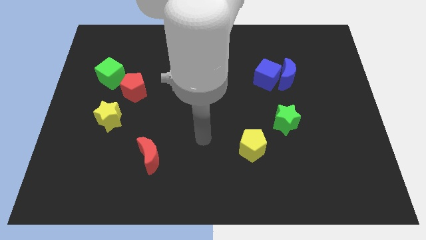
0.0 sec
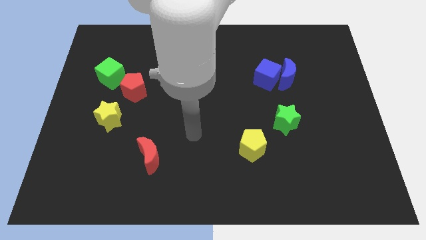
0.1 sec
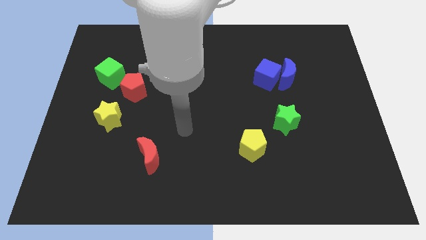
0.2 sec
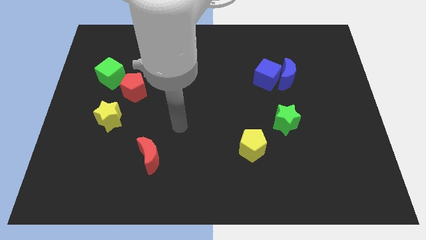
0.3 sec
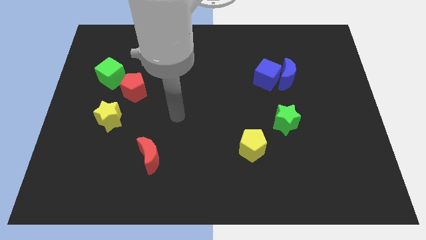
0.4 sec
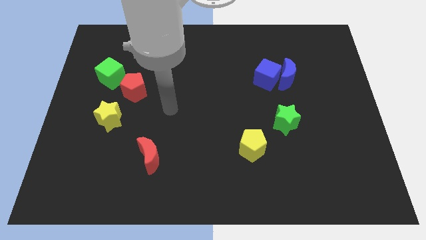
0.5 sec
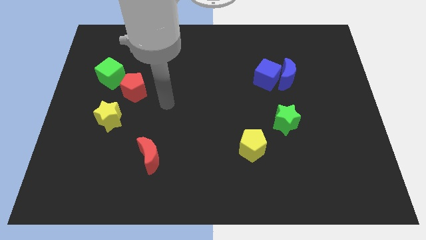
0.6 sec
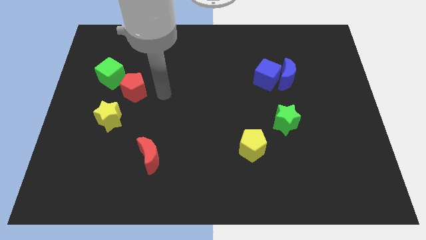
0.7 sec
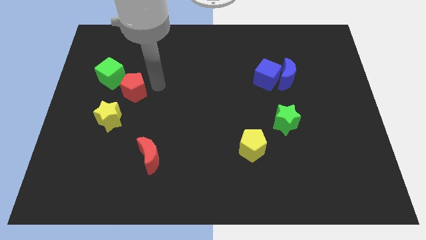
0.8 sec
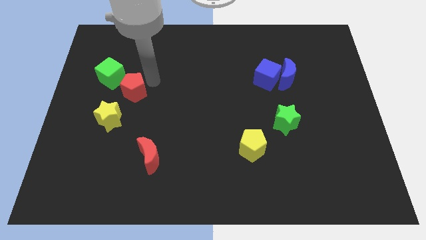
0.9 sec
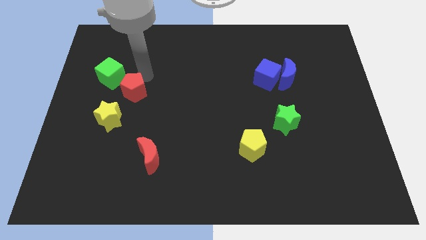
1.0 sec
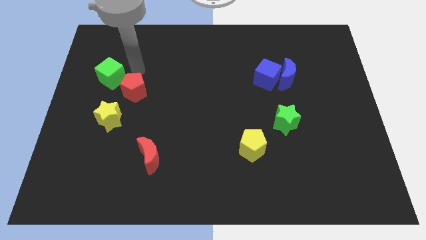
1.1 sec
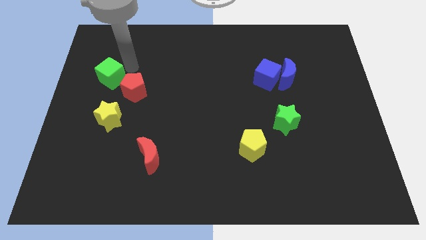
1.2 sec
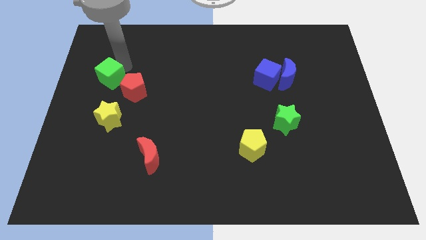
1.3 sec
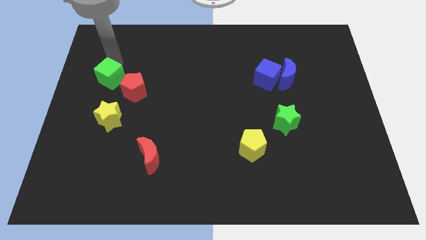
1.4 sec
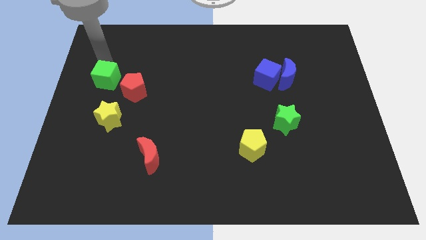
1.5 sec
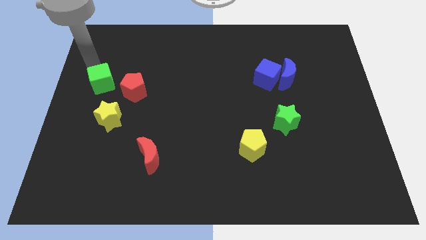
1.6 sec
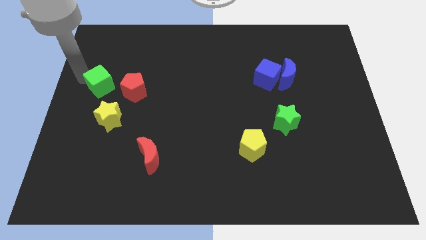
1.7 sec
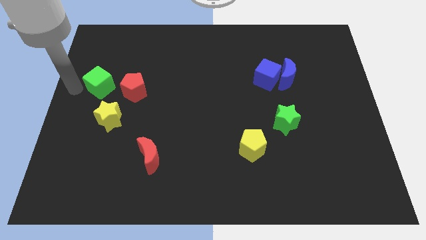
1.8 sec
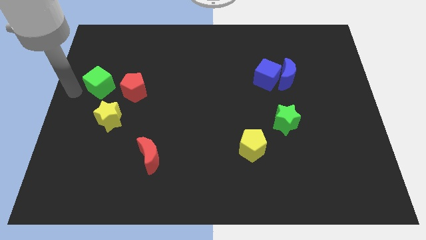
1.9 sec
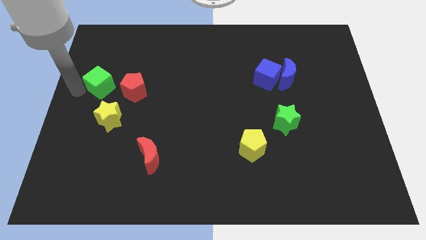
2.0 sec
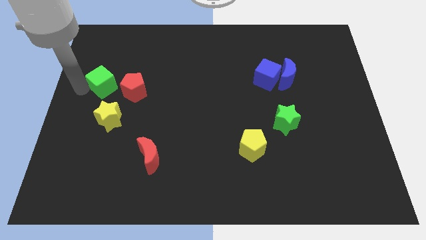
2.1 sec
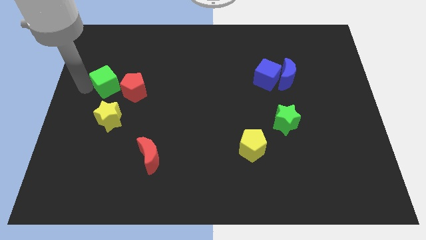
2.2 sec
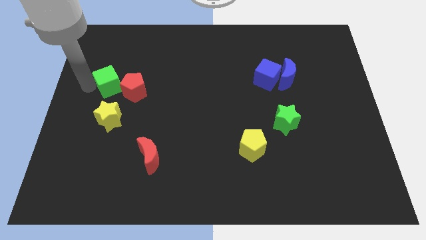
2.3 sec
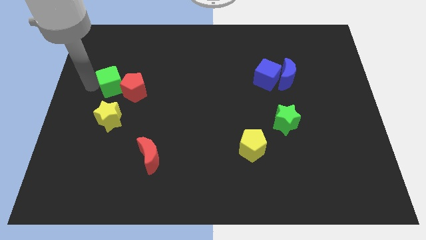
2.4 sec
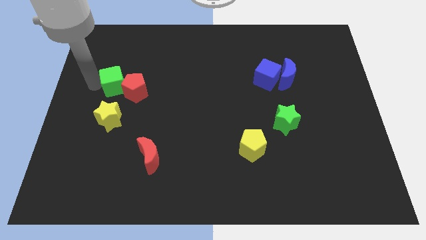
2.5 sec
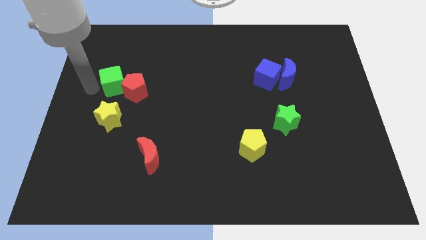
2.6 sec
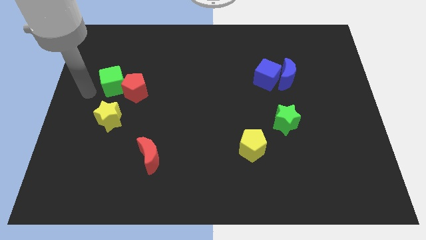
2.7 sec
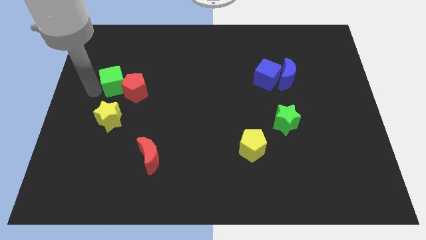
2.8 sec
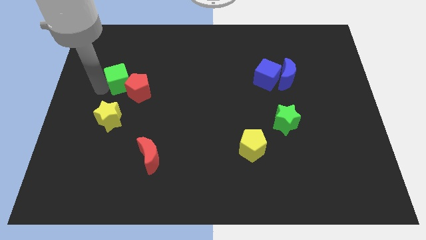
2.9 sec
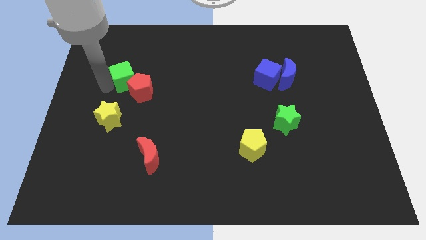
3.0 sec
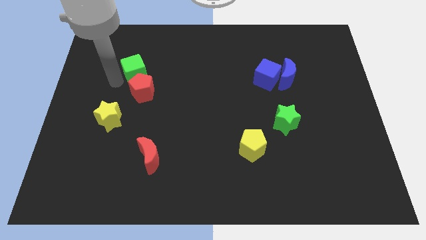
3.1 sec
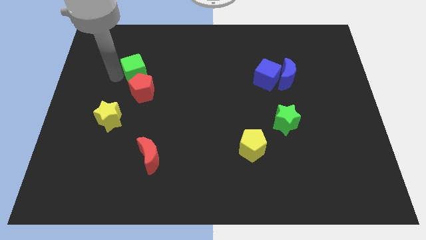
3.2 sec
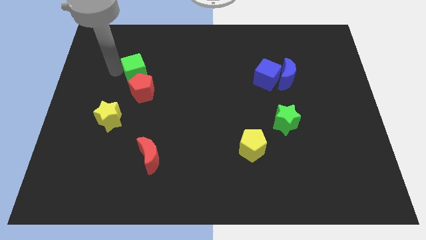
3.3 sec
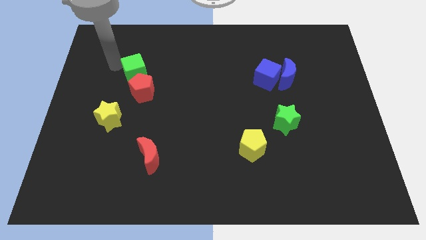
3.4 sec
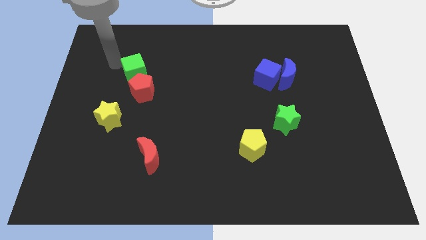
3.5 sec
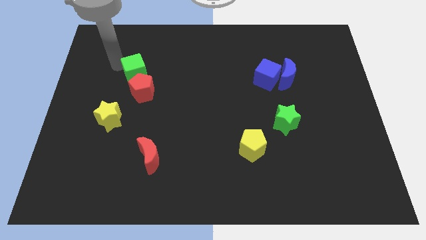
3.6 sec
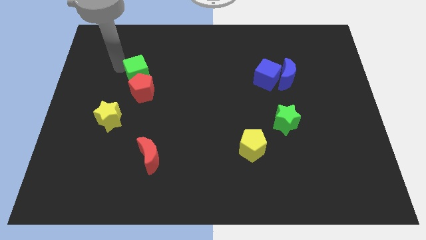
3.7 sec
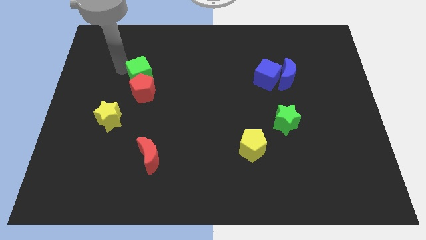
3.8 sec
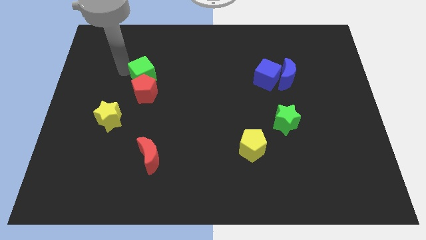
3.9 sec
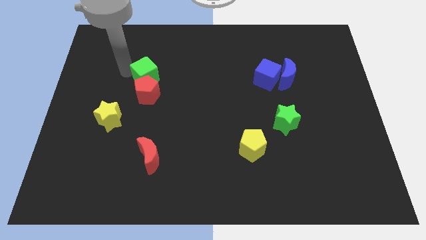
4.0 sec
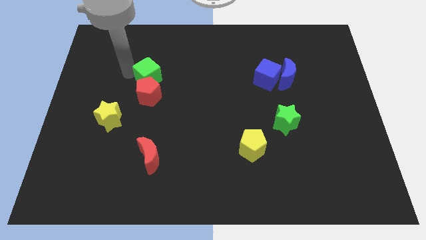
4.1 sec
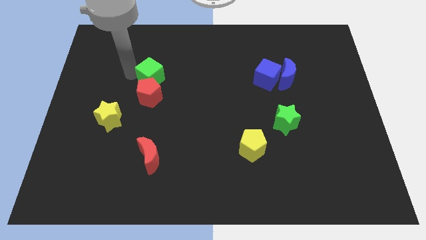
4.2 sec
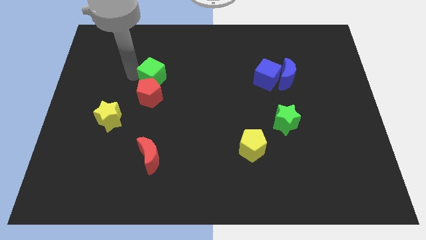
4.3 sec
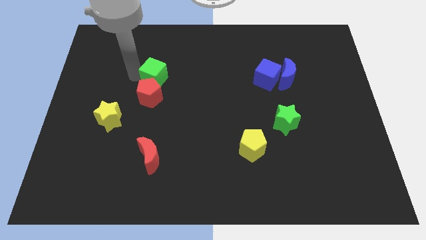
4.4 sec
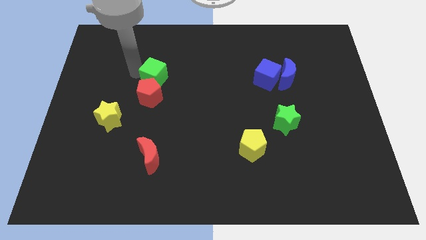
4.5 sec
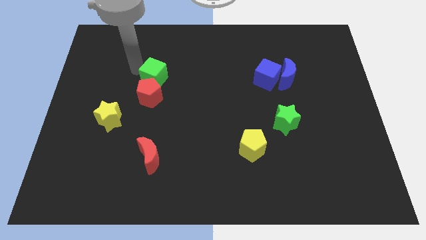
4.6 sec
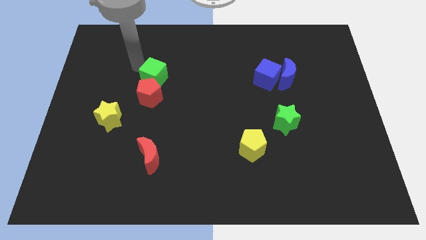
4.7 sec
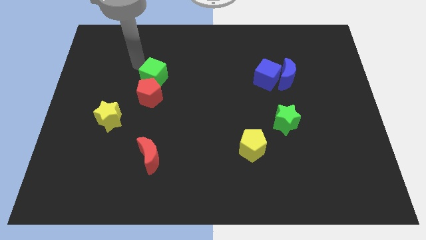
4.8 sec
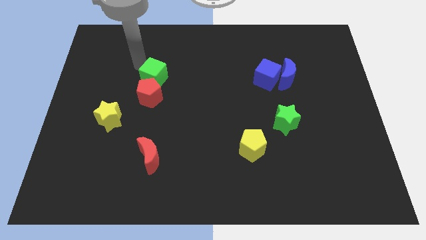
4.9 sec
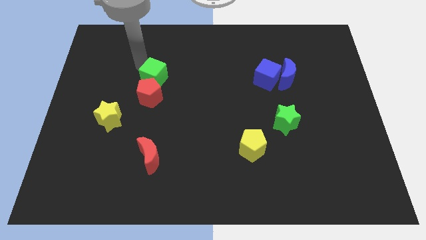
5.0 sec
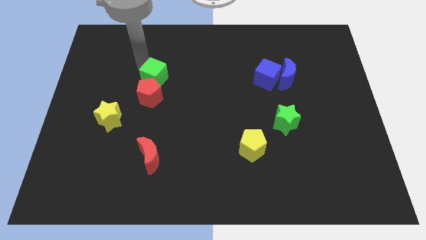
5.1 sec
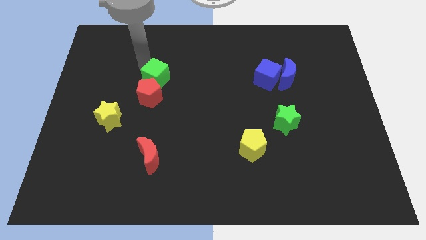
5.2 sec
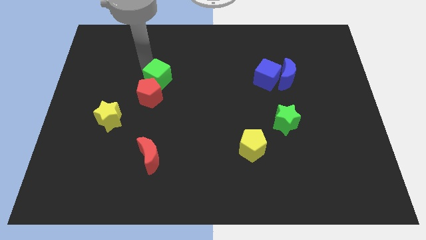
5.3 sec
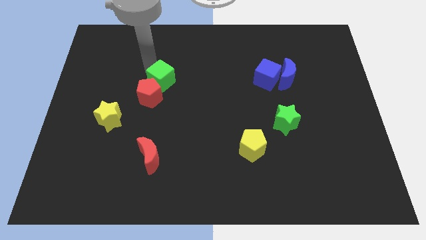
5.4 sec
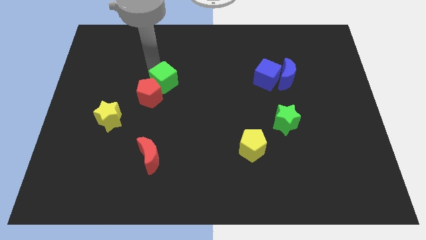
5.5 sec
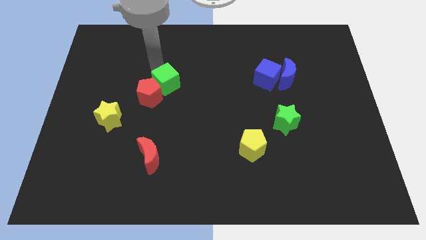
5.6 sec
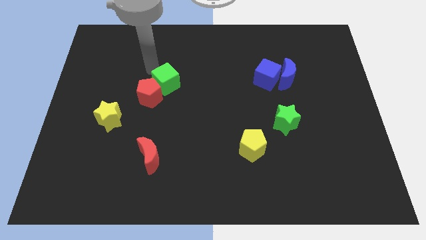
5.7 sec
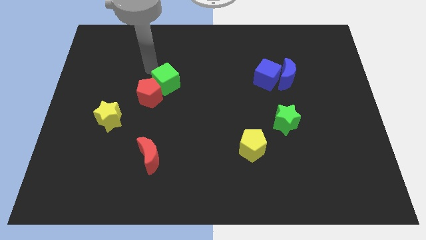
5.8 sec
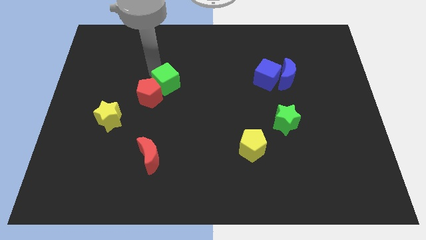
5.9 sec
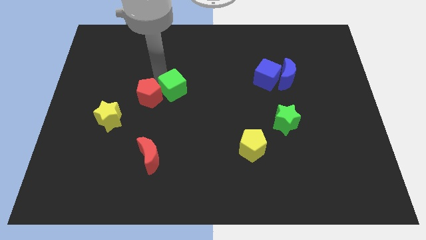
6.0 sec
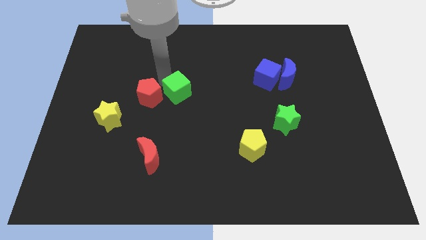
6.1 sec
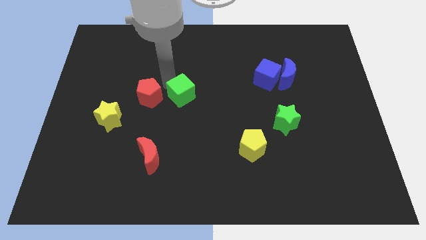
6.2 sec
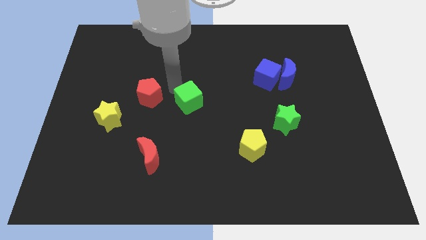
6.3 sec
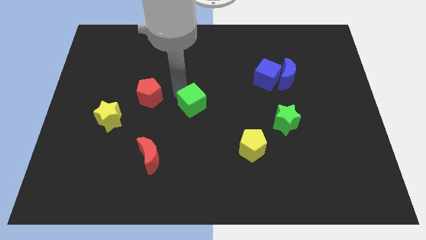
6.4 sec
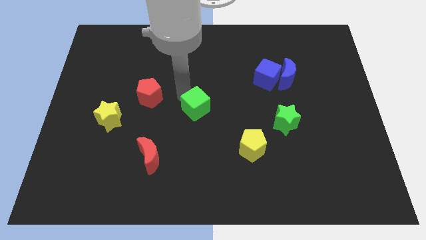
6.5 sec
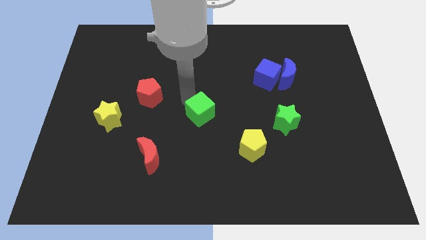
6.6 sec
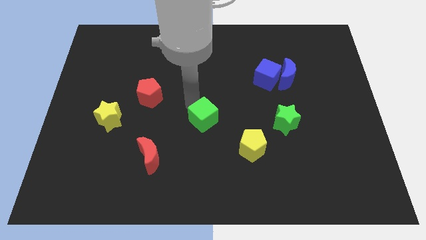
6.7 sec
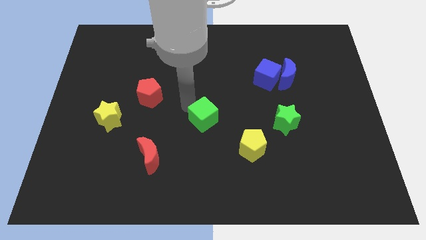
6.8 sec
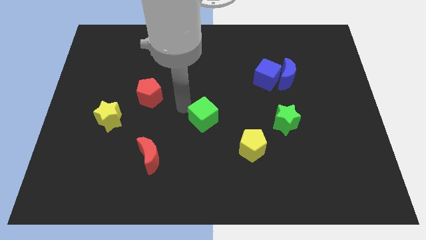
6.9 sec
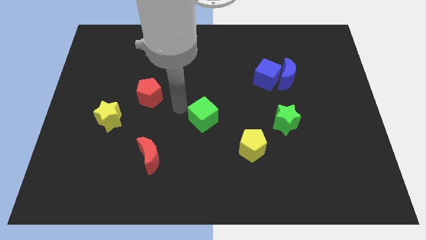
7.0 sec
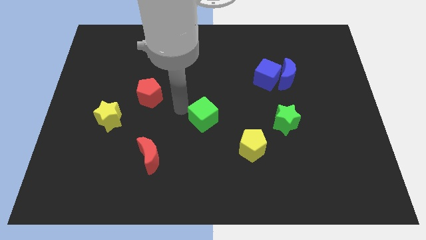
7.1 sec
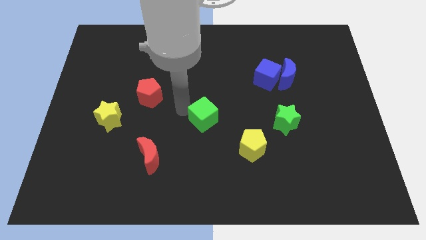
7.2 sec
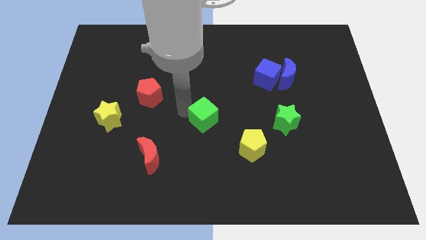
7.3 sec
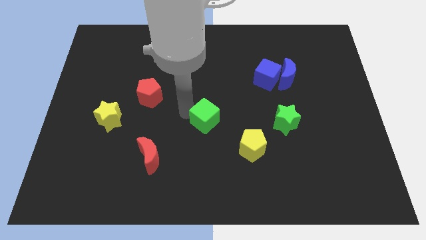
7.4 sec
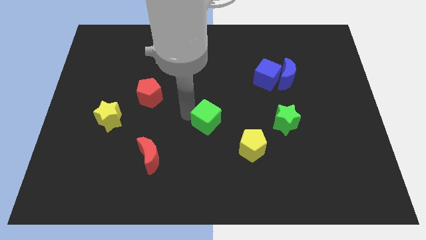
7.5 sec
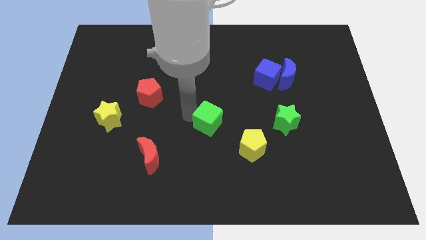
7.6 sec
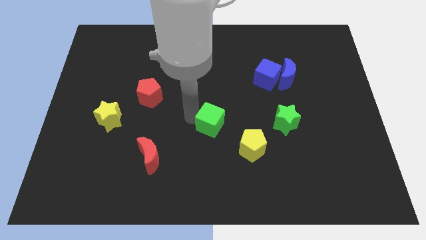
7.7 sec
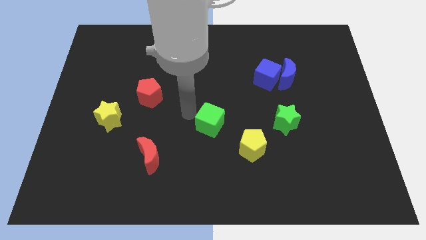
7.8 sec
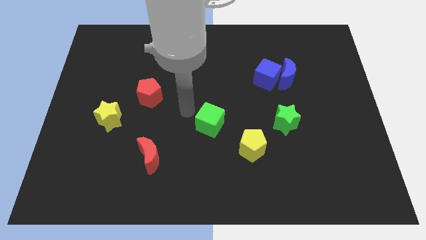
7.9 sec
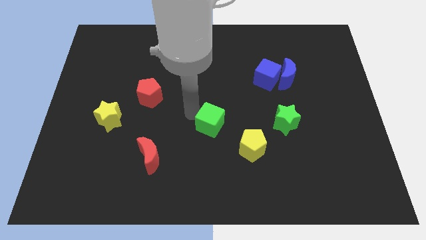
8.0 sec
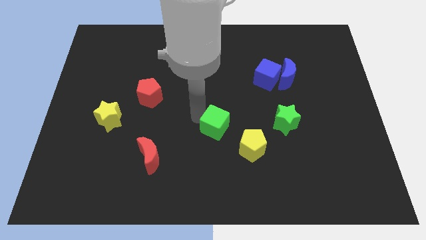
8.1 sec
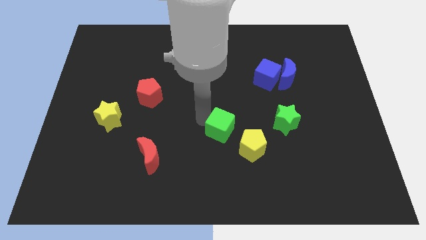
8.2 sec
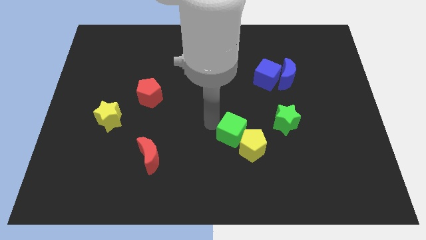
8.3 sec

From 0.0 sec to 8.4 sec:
slide the green cube towards the yellow pentagon
